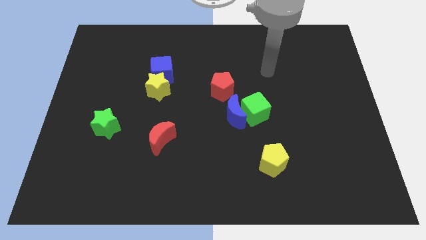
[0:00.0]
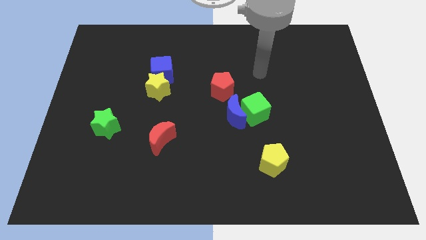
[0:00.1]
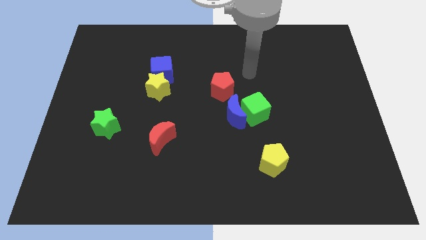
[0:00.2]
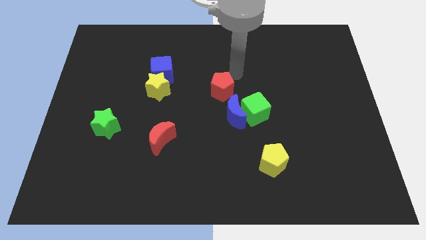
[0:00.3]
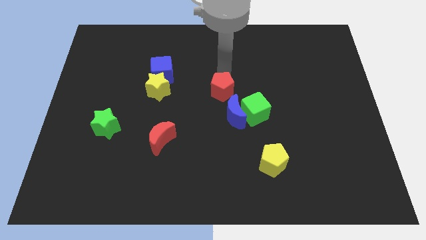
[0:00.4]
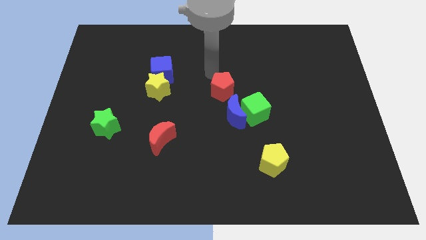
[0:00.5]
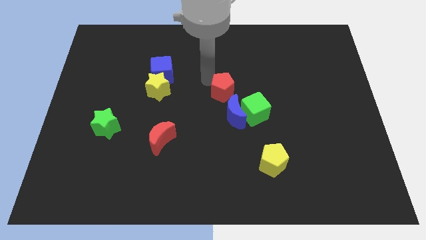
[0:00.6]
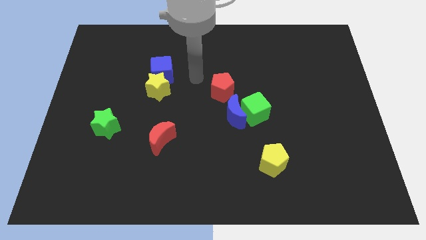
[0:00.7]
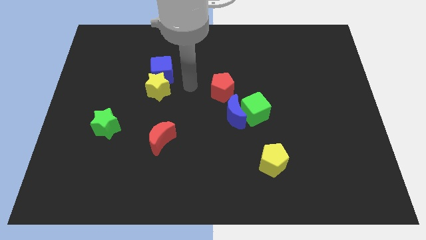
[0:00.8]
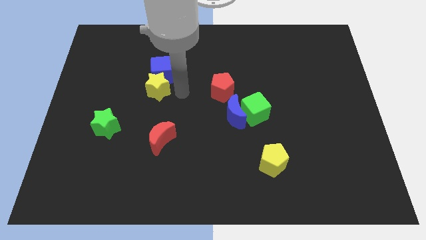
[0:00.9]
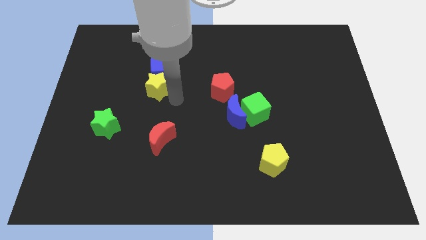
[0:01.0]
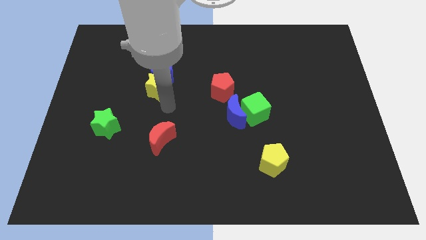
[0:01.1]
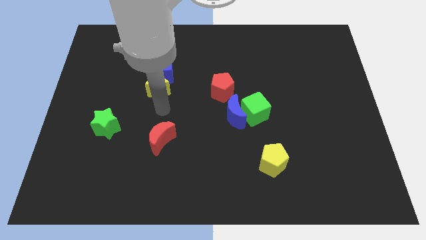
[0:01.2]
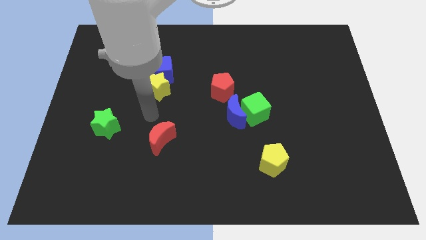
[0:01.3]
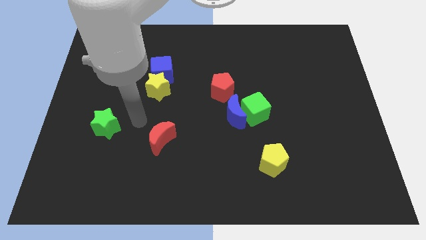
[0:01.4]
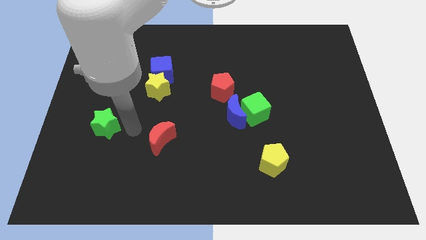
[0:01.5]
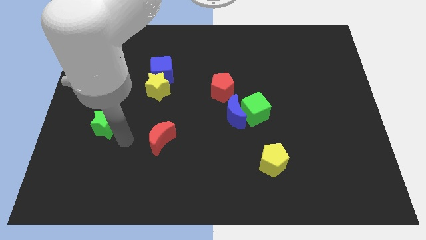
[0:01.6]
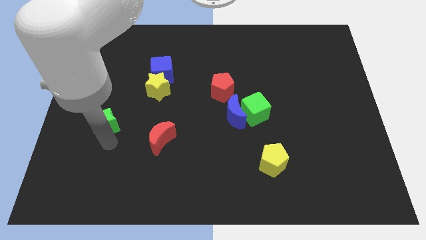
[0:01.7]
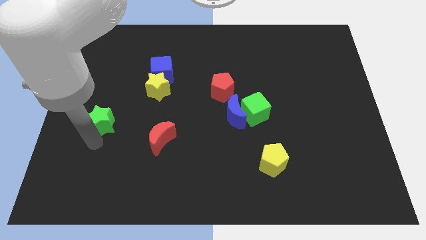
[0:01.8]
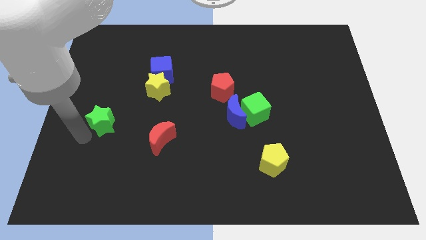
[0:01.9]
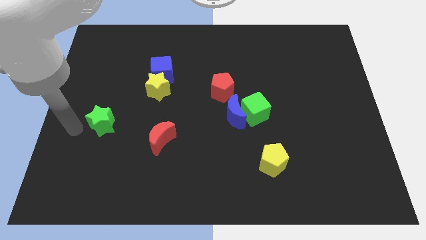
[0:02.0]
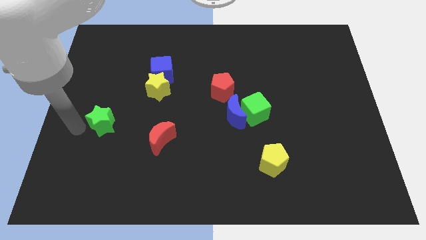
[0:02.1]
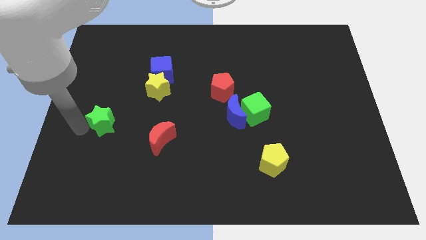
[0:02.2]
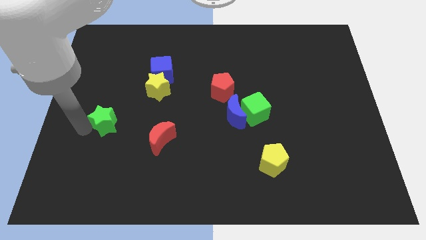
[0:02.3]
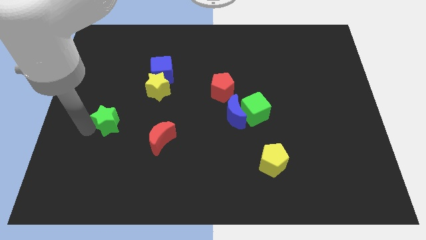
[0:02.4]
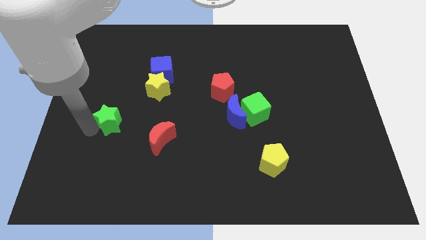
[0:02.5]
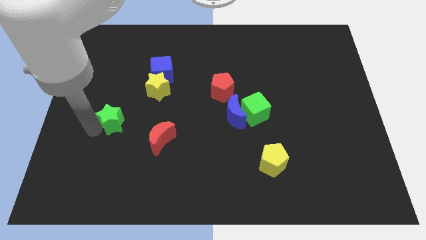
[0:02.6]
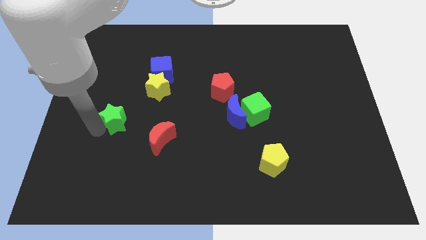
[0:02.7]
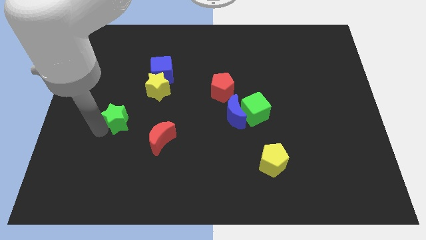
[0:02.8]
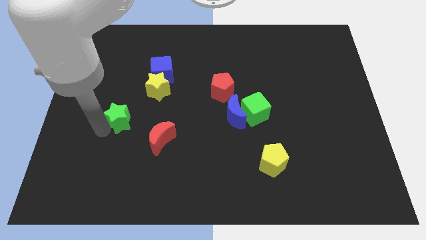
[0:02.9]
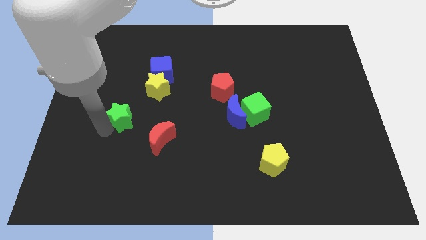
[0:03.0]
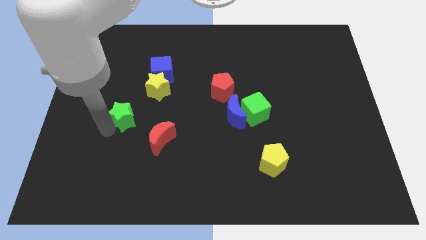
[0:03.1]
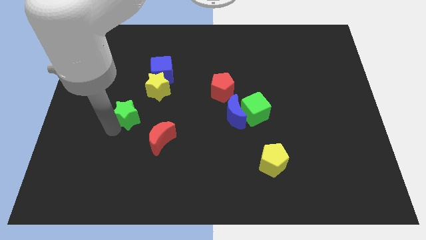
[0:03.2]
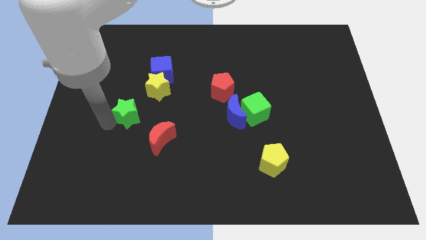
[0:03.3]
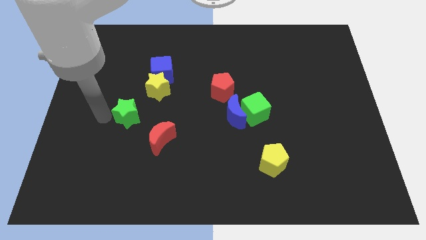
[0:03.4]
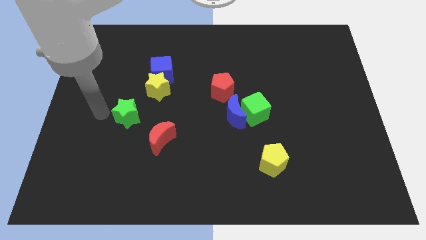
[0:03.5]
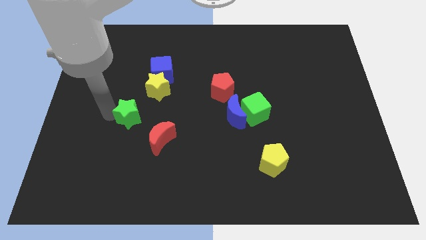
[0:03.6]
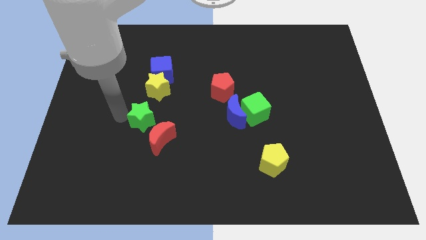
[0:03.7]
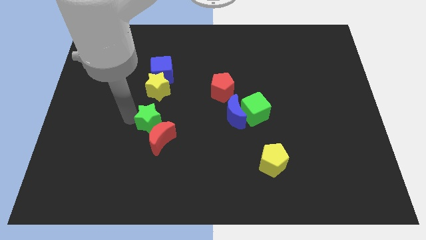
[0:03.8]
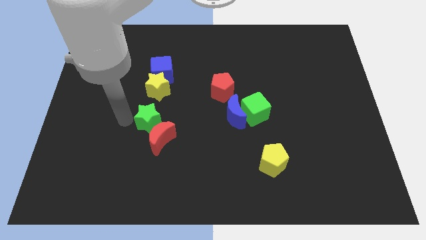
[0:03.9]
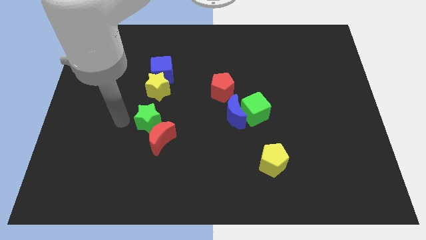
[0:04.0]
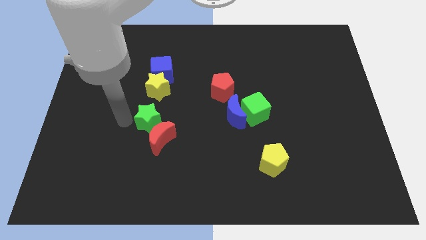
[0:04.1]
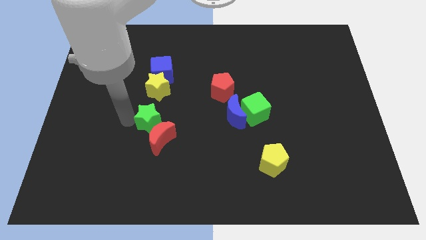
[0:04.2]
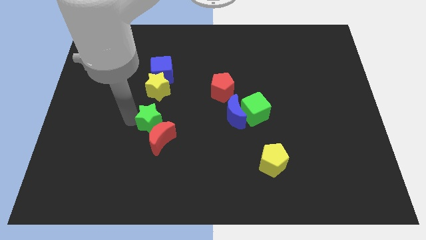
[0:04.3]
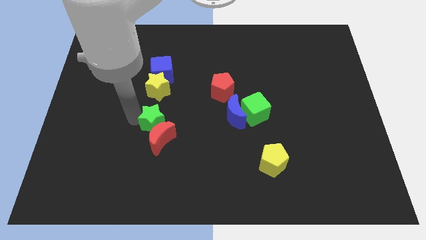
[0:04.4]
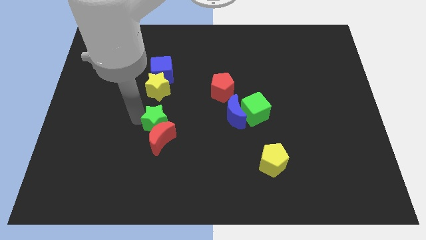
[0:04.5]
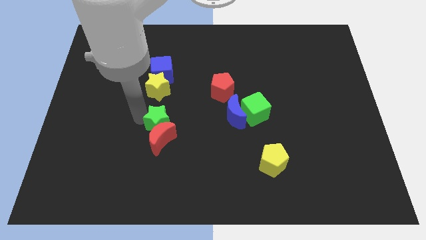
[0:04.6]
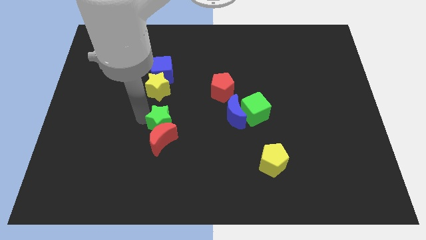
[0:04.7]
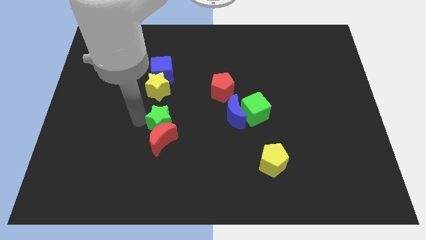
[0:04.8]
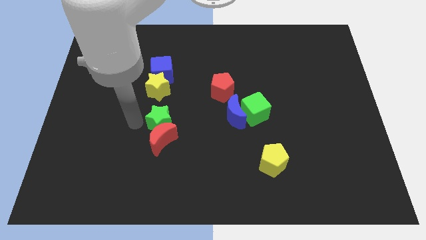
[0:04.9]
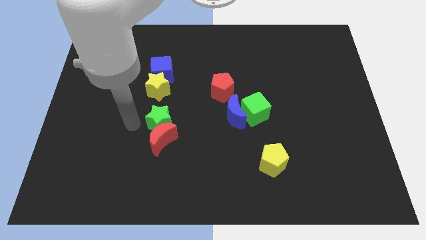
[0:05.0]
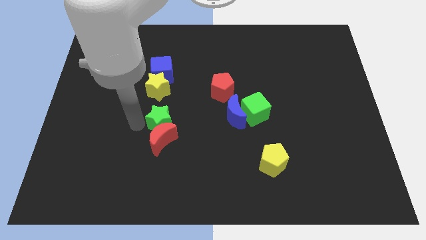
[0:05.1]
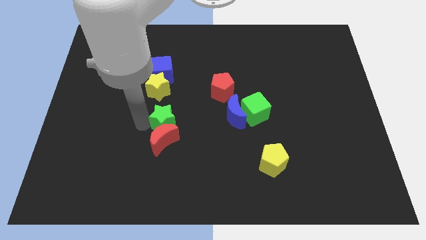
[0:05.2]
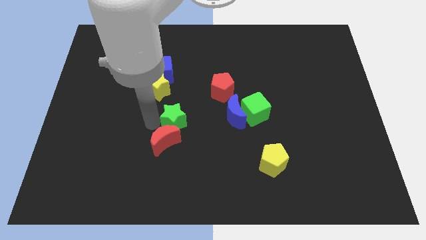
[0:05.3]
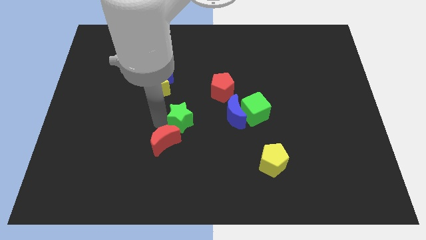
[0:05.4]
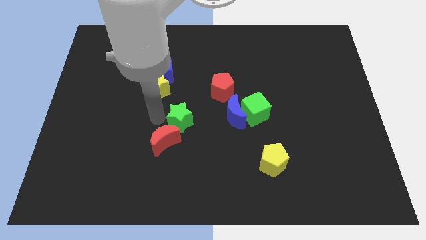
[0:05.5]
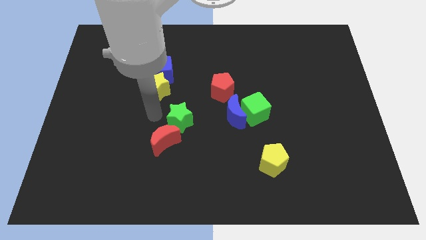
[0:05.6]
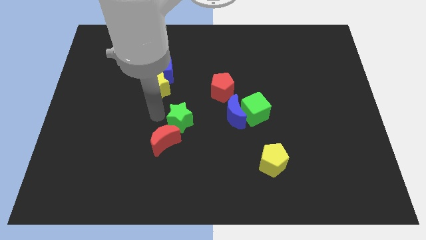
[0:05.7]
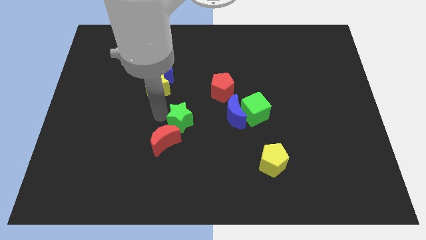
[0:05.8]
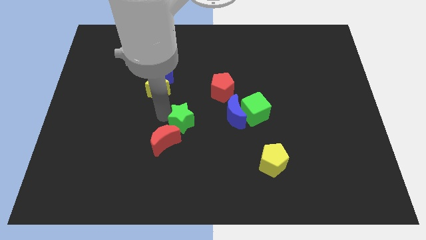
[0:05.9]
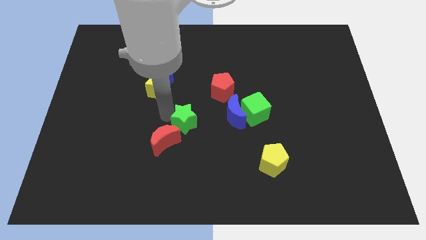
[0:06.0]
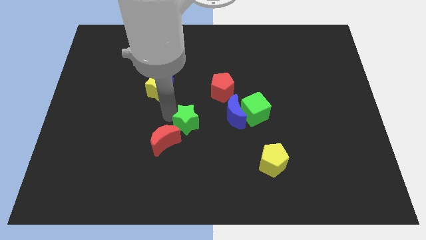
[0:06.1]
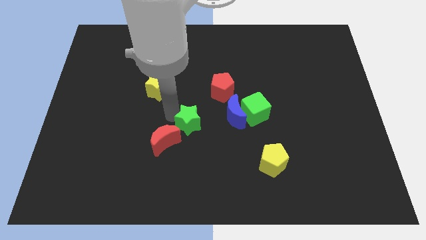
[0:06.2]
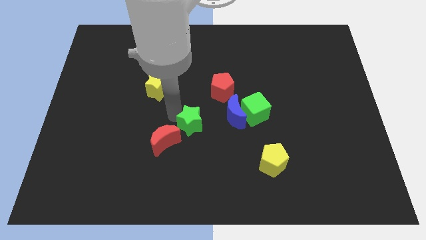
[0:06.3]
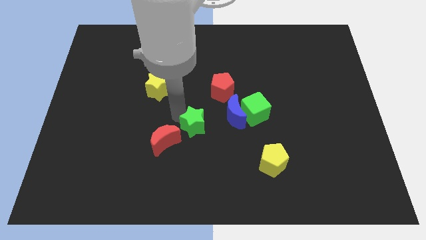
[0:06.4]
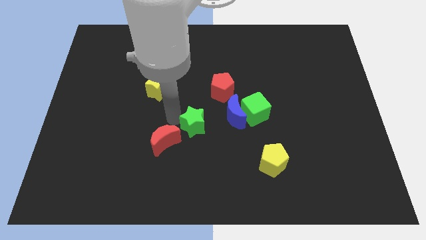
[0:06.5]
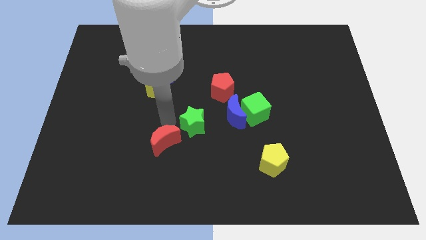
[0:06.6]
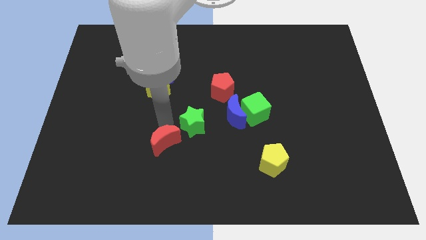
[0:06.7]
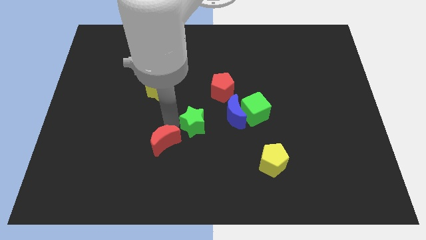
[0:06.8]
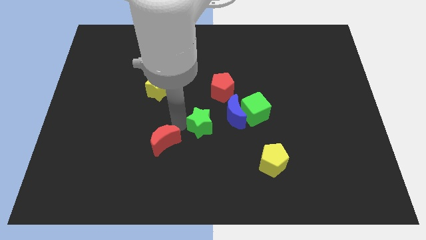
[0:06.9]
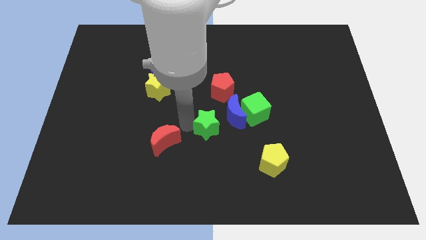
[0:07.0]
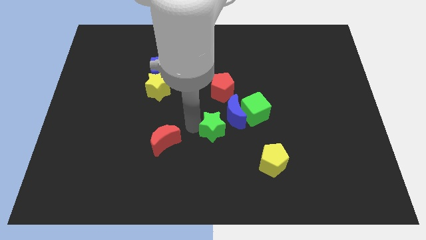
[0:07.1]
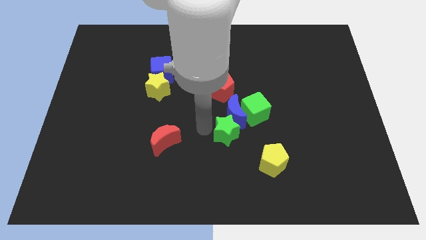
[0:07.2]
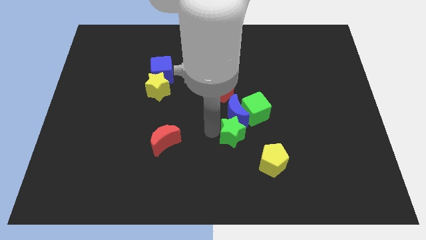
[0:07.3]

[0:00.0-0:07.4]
move the green star to the bottom right of the blue moon
